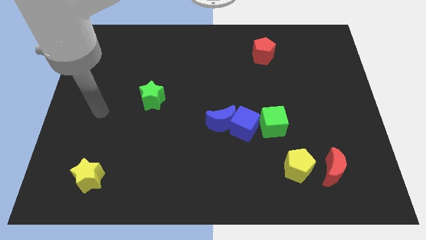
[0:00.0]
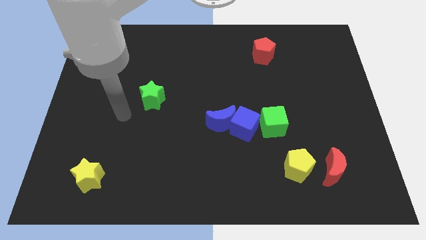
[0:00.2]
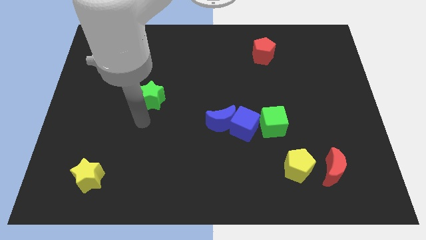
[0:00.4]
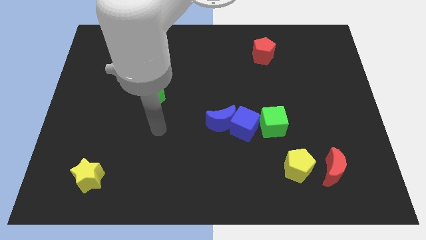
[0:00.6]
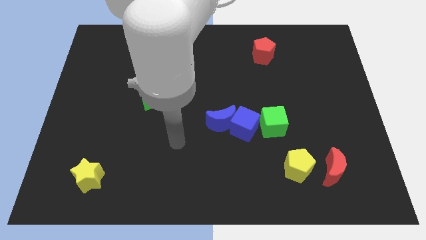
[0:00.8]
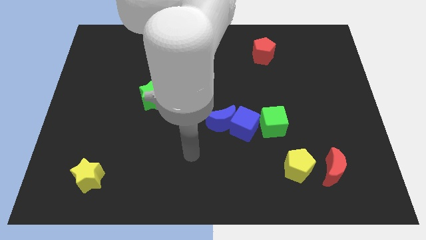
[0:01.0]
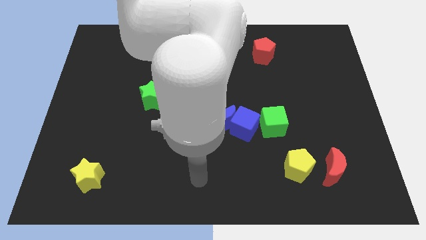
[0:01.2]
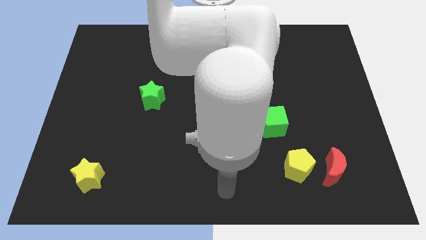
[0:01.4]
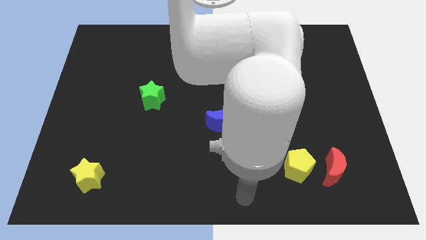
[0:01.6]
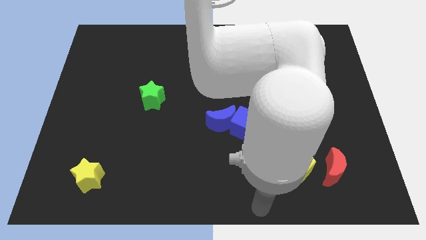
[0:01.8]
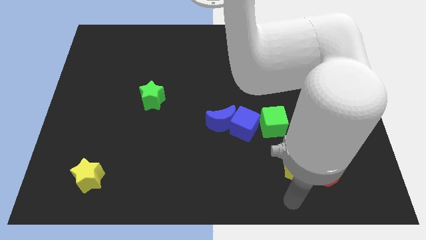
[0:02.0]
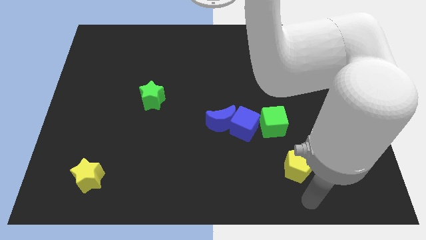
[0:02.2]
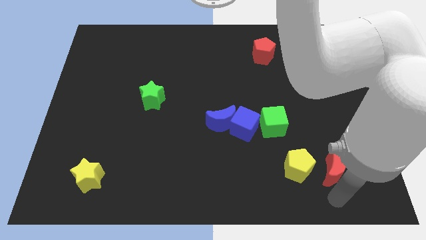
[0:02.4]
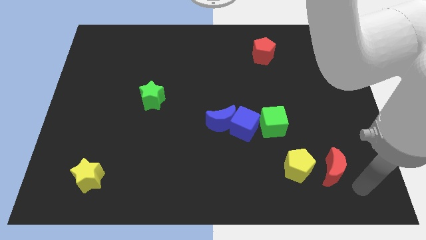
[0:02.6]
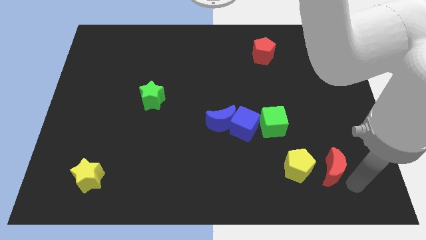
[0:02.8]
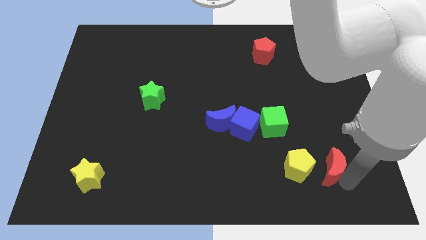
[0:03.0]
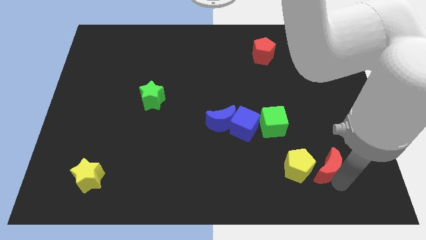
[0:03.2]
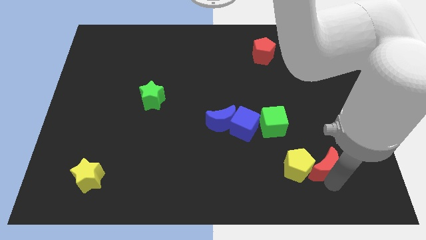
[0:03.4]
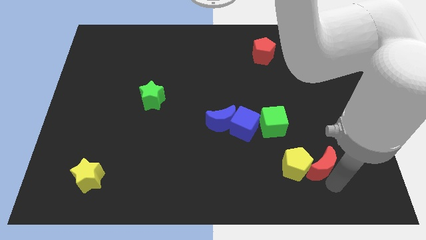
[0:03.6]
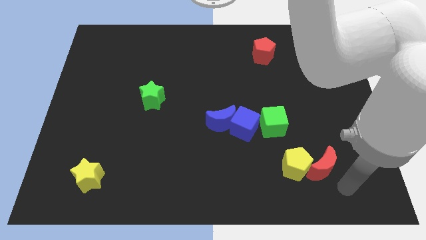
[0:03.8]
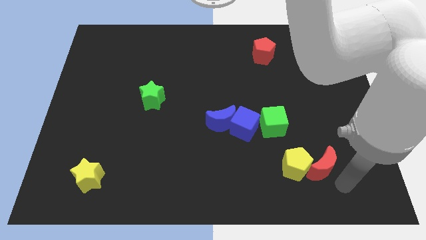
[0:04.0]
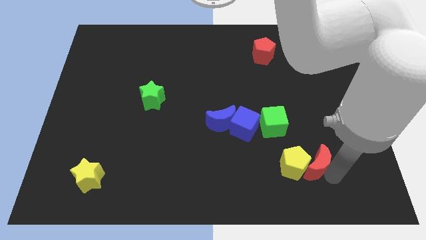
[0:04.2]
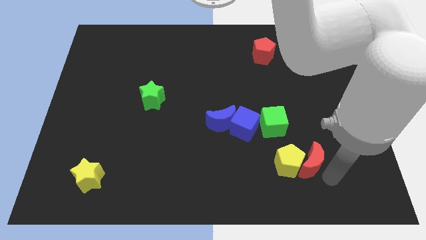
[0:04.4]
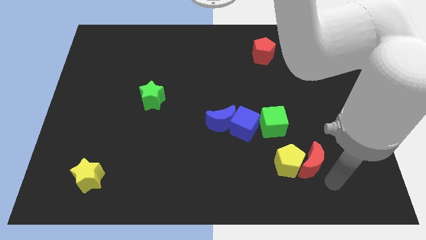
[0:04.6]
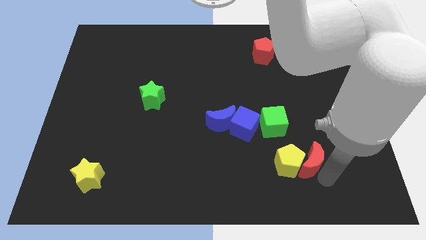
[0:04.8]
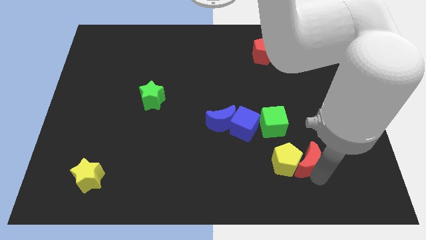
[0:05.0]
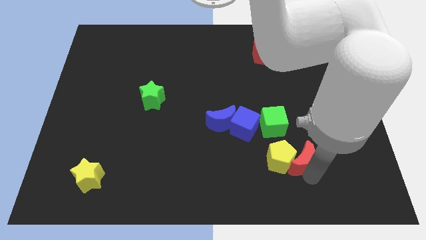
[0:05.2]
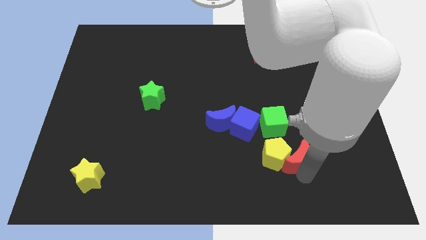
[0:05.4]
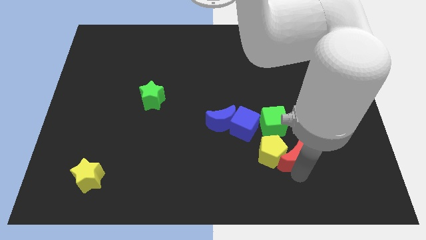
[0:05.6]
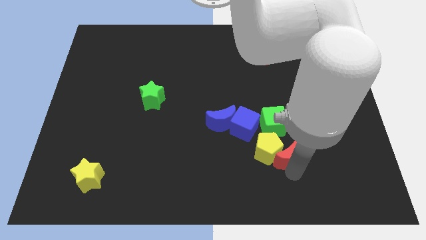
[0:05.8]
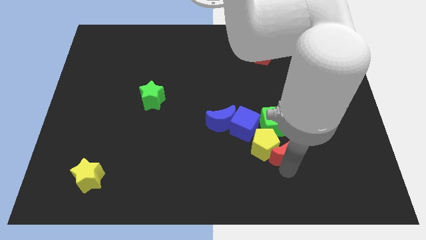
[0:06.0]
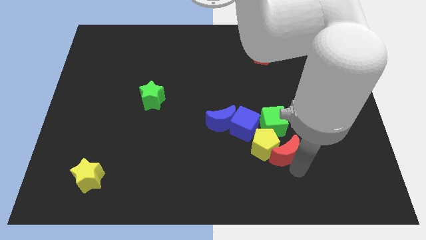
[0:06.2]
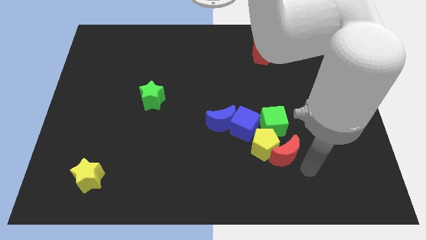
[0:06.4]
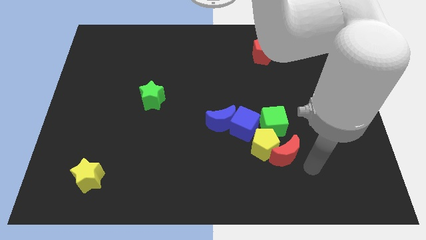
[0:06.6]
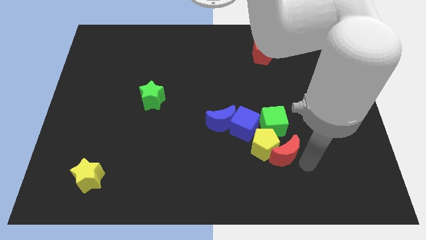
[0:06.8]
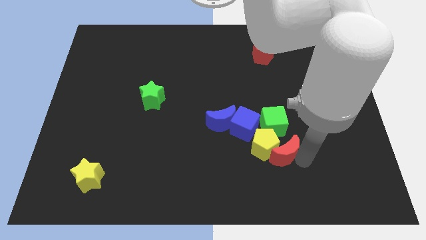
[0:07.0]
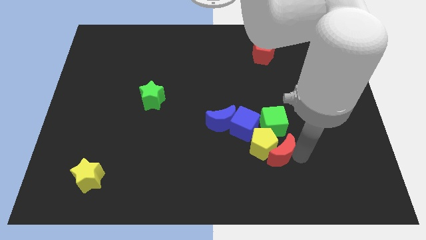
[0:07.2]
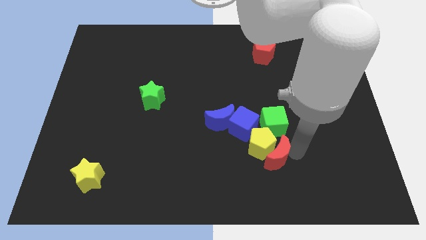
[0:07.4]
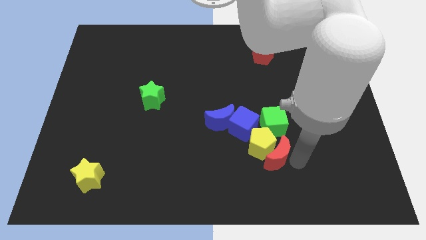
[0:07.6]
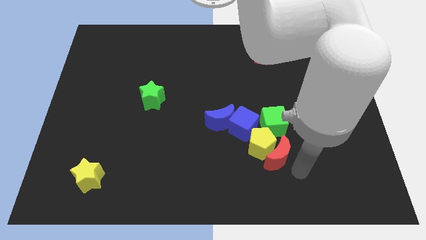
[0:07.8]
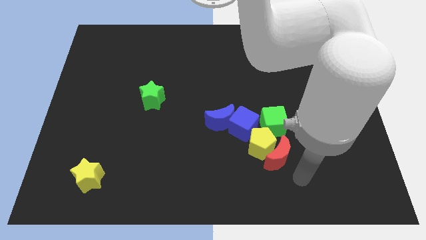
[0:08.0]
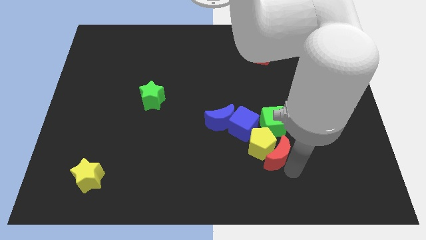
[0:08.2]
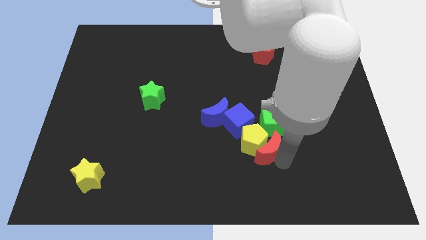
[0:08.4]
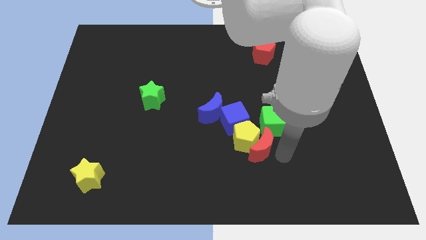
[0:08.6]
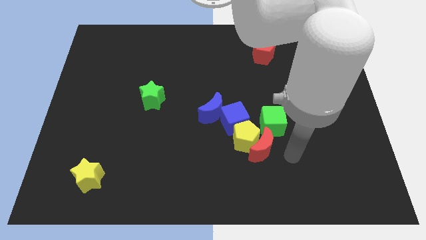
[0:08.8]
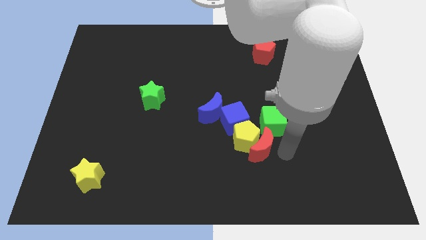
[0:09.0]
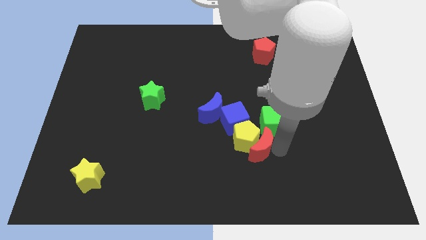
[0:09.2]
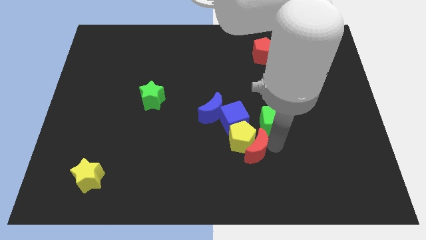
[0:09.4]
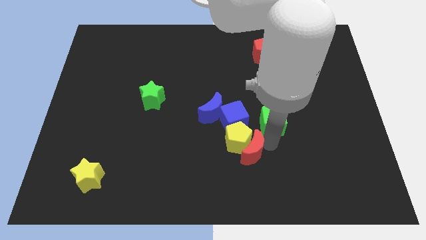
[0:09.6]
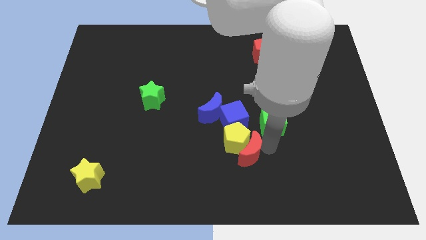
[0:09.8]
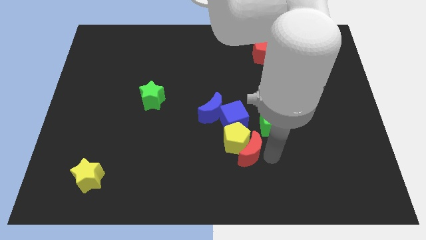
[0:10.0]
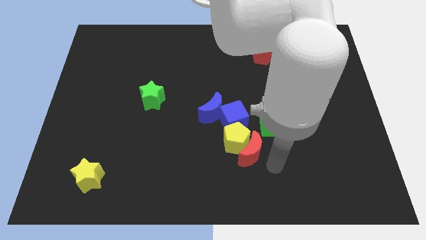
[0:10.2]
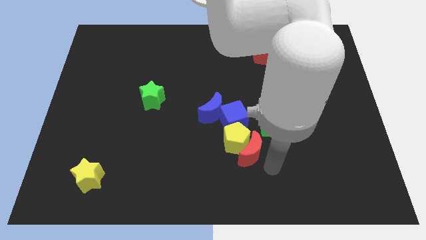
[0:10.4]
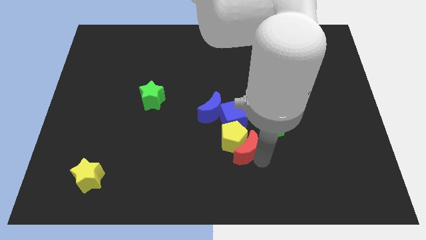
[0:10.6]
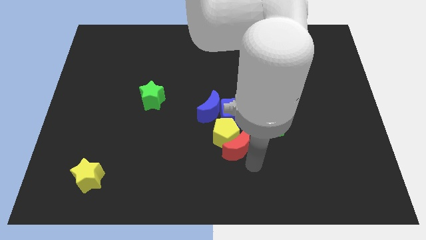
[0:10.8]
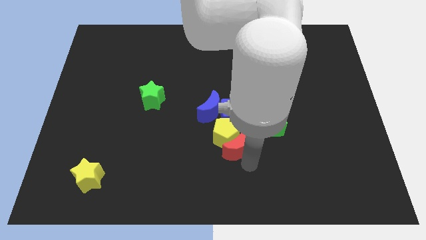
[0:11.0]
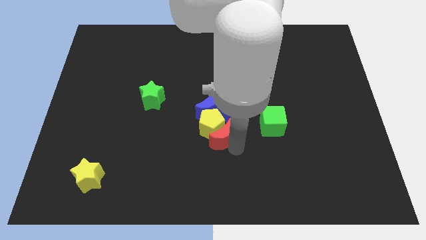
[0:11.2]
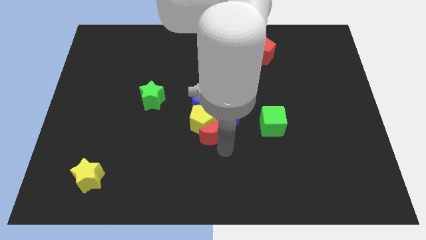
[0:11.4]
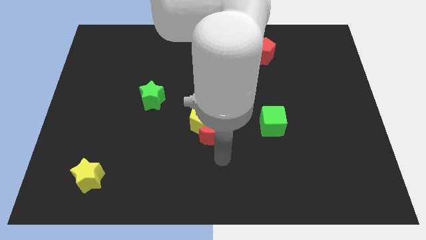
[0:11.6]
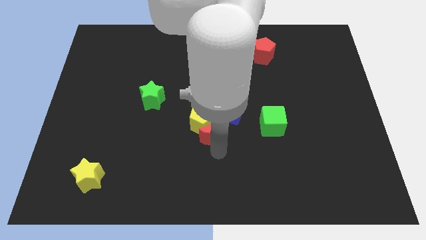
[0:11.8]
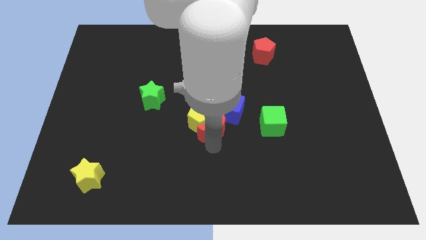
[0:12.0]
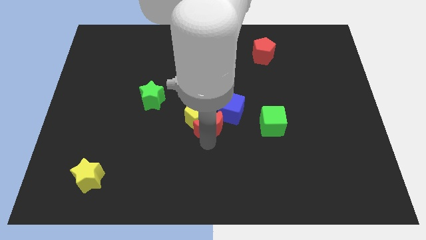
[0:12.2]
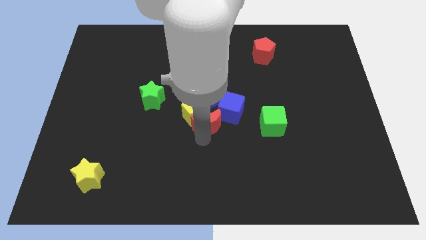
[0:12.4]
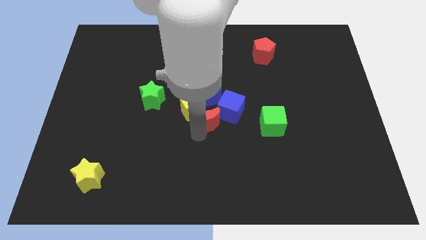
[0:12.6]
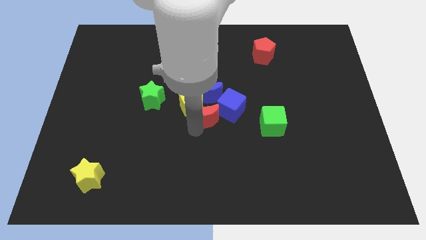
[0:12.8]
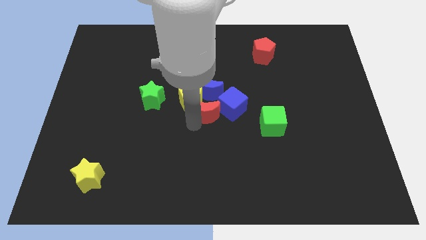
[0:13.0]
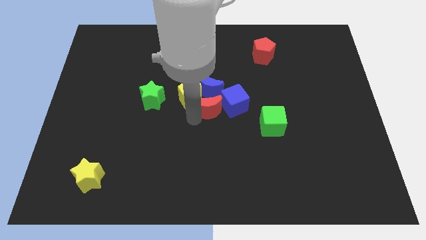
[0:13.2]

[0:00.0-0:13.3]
slide the red moon towards the blue moon
